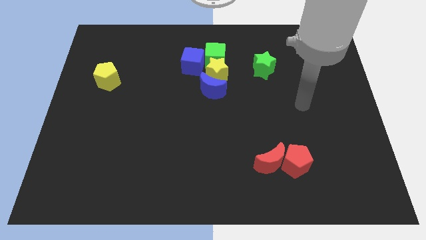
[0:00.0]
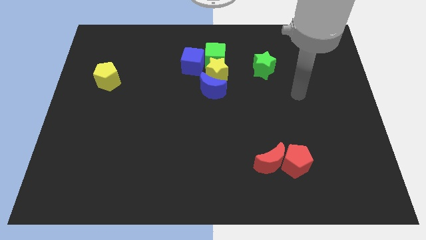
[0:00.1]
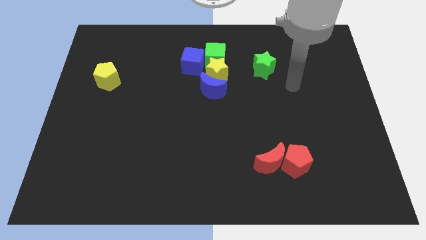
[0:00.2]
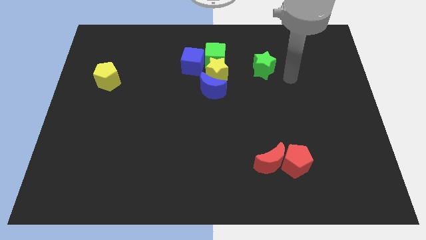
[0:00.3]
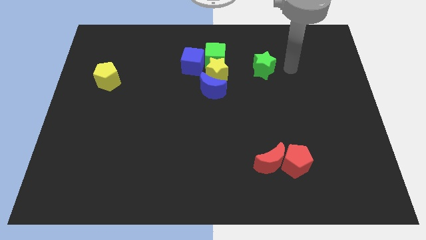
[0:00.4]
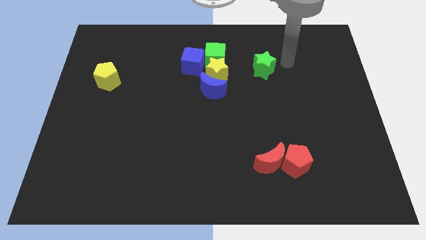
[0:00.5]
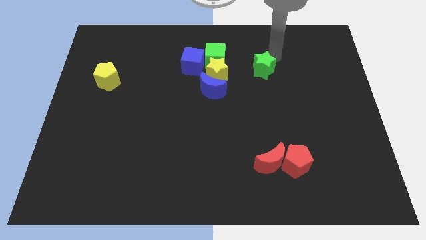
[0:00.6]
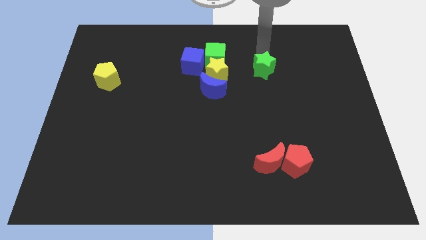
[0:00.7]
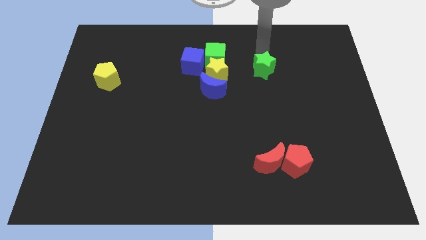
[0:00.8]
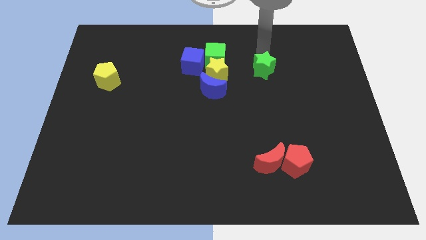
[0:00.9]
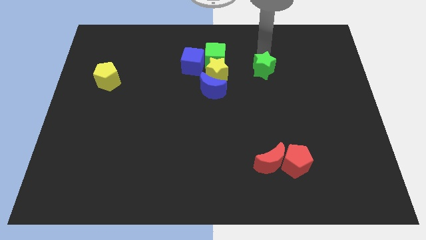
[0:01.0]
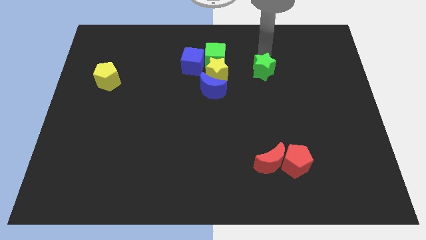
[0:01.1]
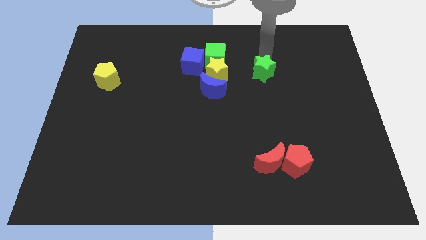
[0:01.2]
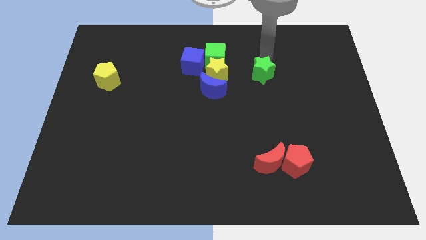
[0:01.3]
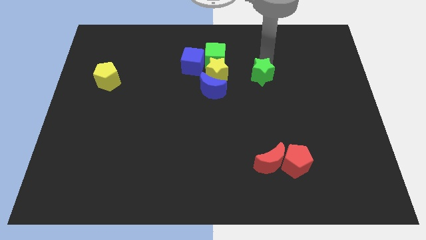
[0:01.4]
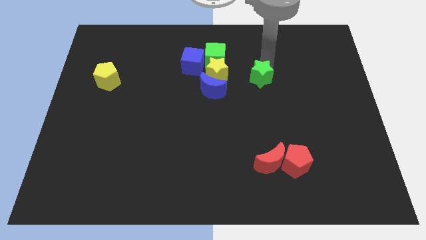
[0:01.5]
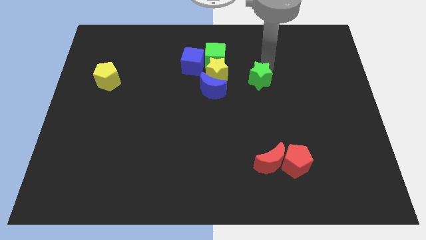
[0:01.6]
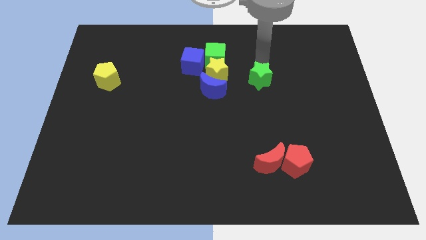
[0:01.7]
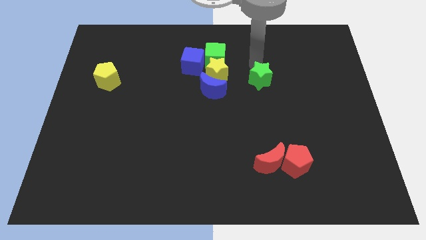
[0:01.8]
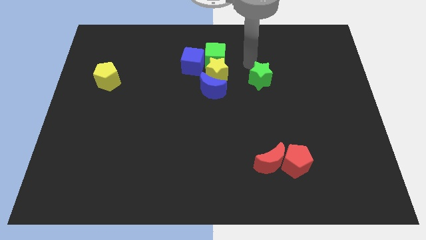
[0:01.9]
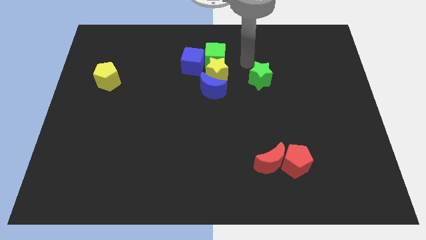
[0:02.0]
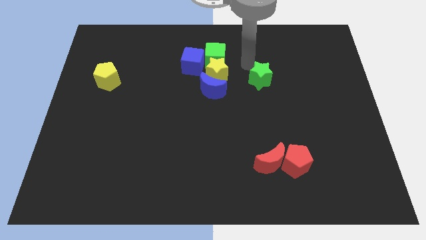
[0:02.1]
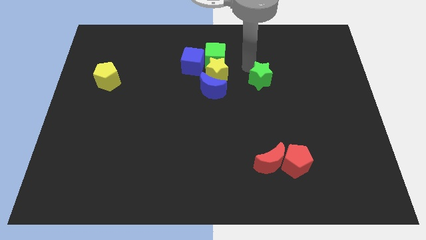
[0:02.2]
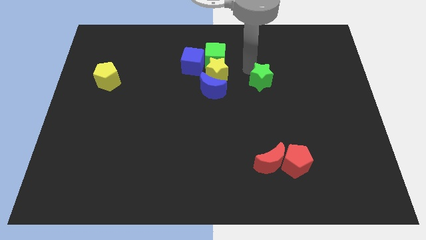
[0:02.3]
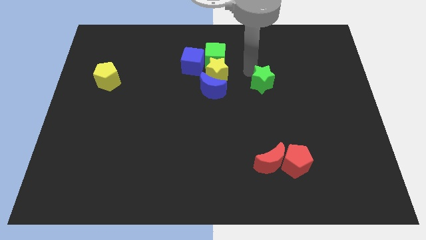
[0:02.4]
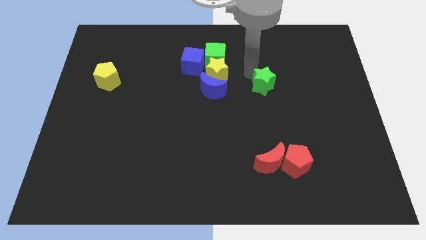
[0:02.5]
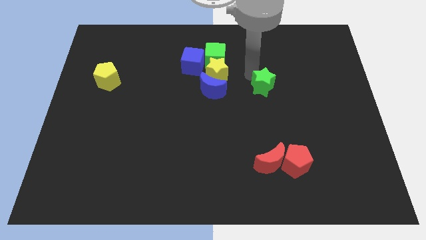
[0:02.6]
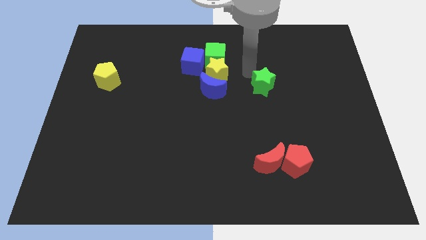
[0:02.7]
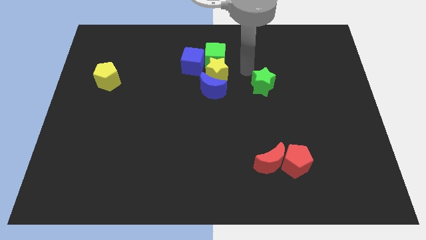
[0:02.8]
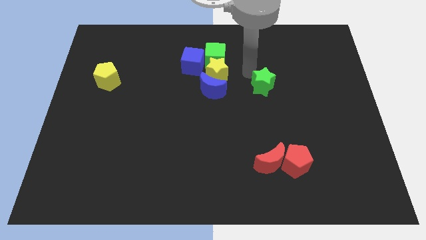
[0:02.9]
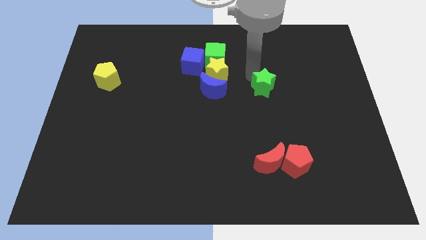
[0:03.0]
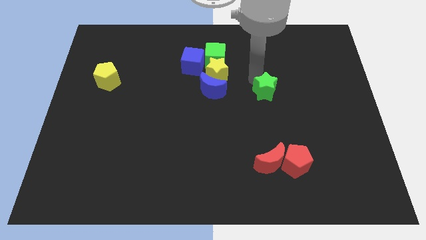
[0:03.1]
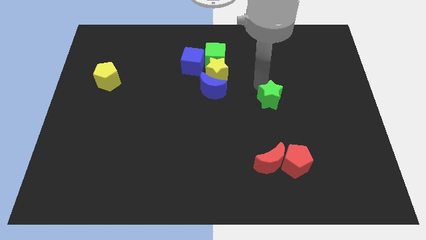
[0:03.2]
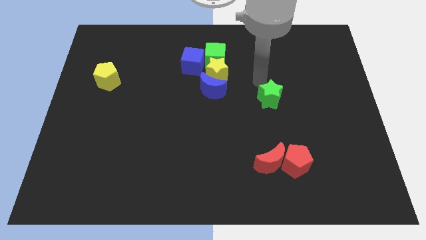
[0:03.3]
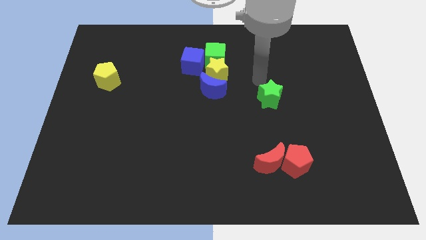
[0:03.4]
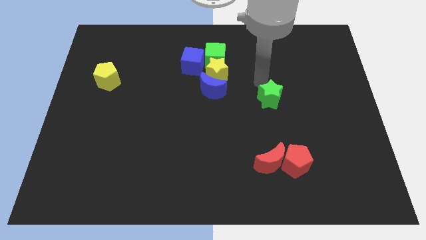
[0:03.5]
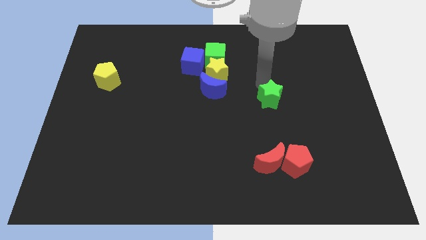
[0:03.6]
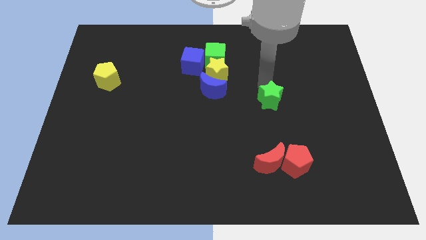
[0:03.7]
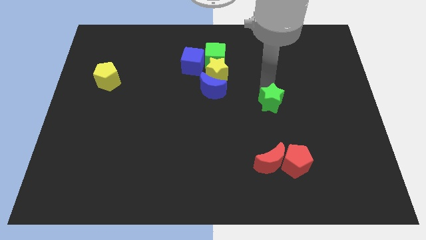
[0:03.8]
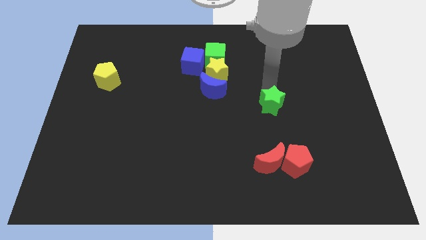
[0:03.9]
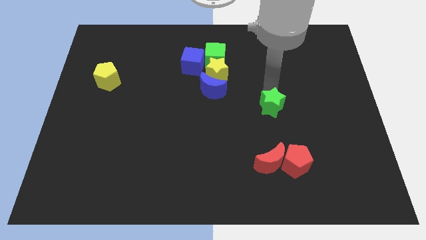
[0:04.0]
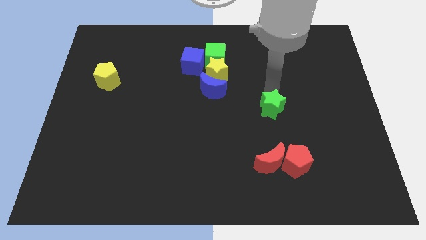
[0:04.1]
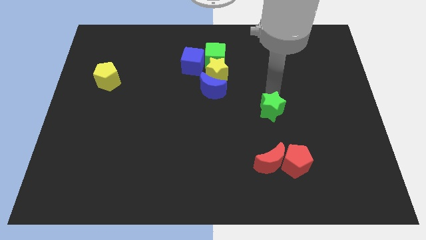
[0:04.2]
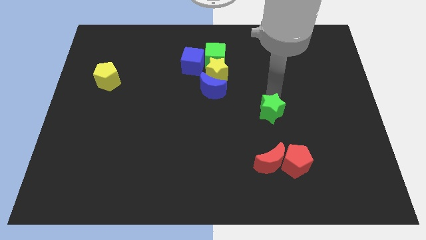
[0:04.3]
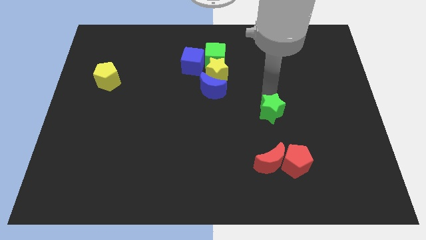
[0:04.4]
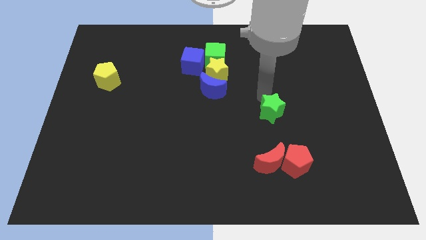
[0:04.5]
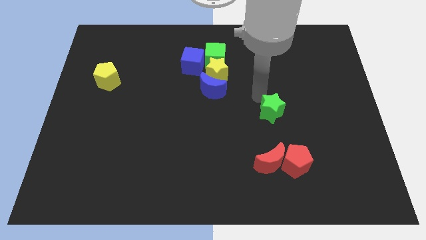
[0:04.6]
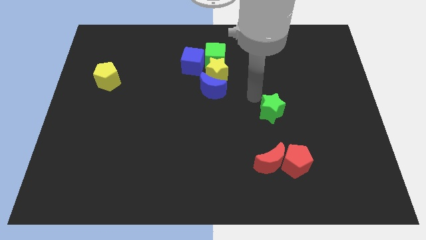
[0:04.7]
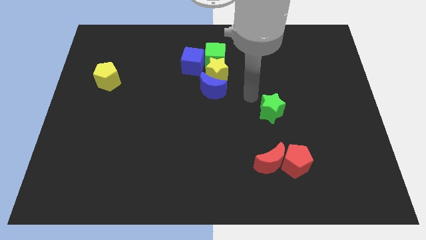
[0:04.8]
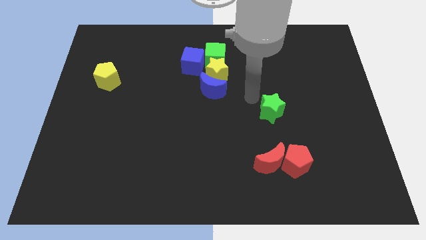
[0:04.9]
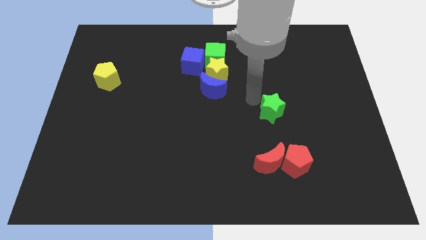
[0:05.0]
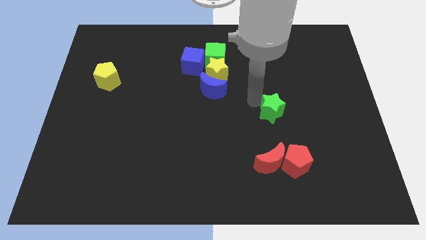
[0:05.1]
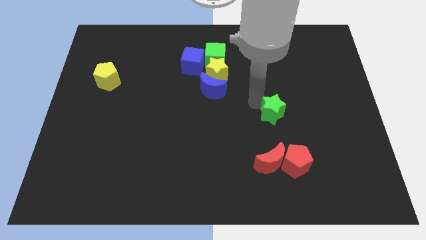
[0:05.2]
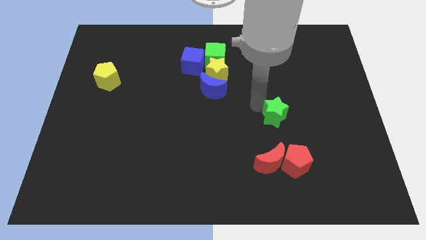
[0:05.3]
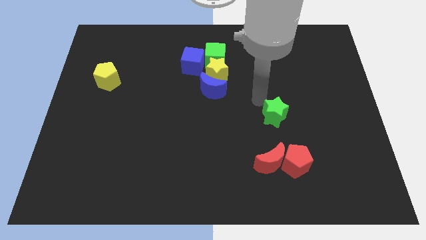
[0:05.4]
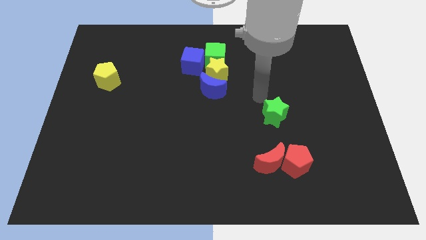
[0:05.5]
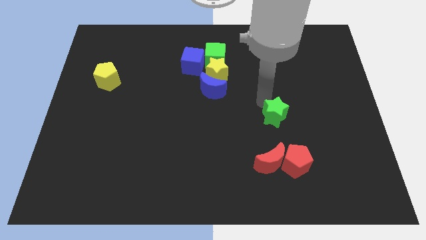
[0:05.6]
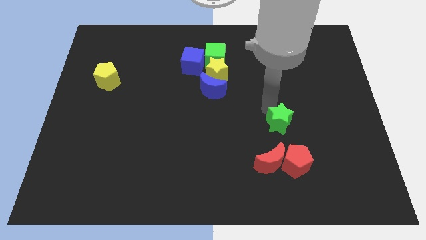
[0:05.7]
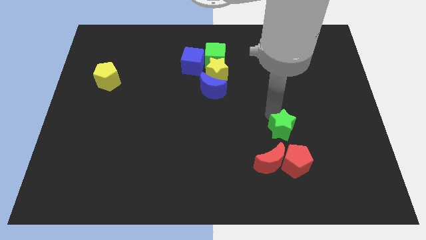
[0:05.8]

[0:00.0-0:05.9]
slide the green star to the top right of the red moon

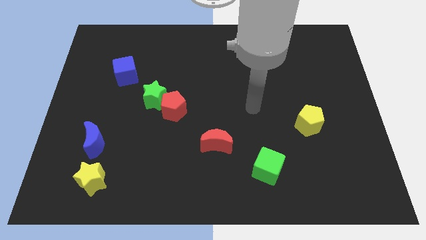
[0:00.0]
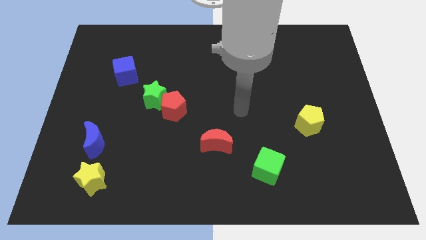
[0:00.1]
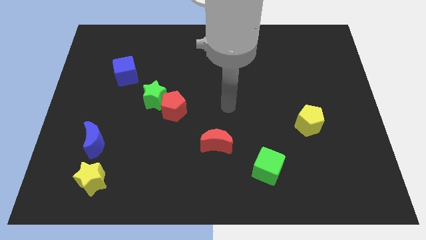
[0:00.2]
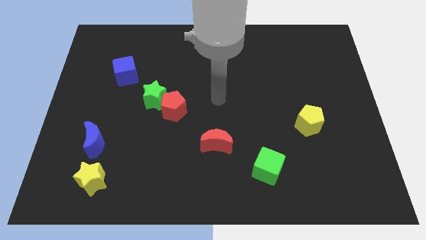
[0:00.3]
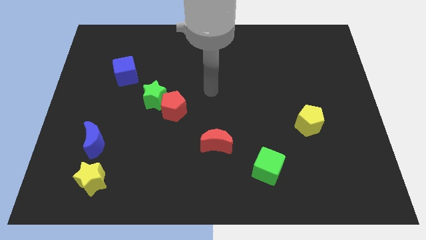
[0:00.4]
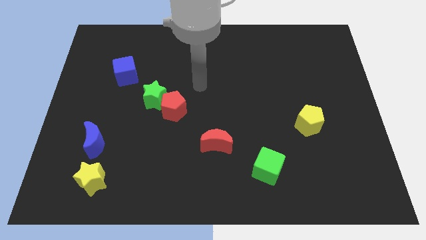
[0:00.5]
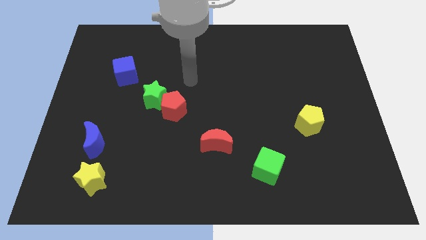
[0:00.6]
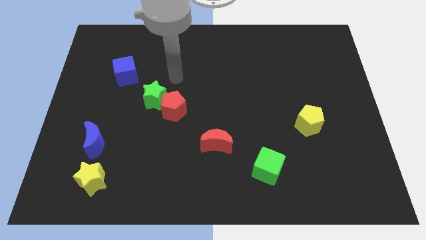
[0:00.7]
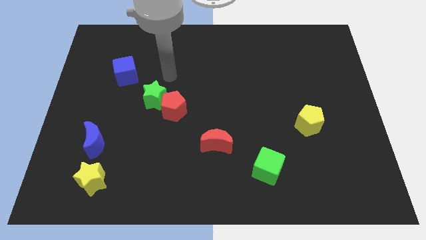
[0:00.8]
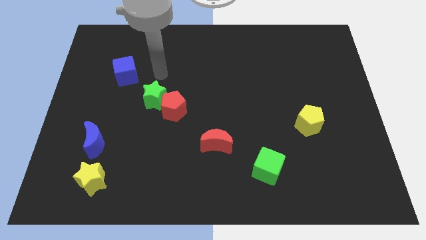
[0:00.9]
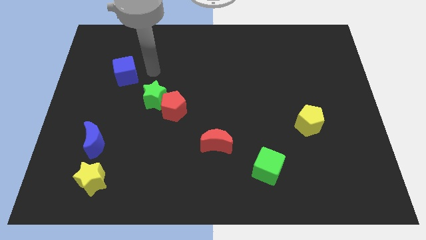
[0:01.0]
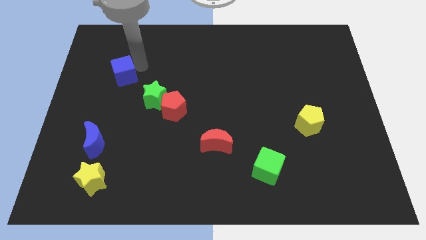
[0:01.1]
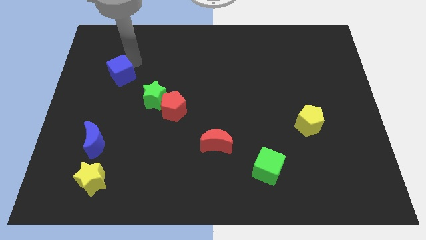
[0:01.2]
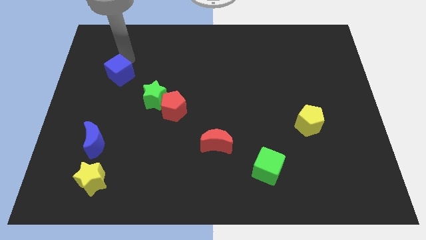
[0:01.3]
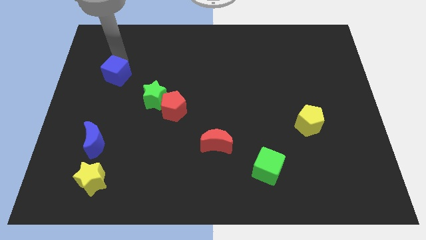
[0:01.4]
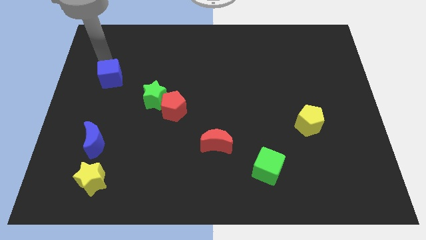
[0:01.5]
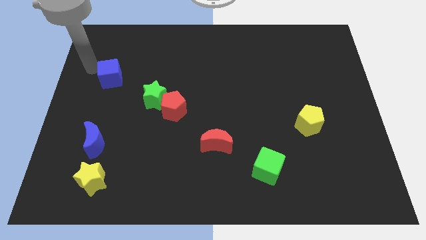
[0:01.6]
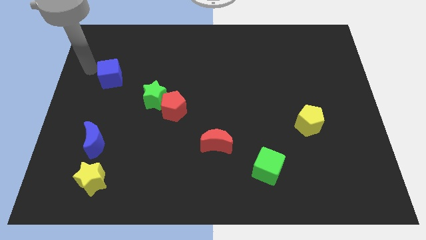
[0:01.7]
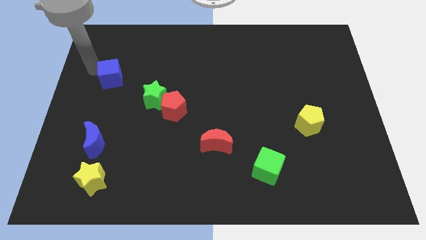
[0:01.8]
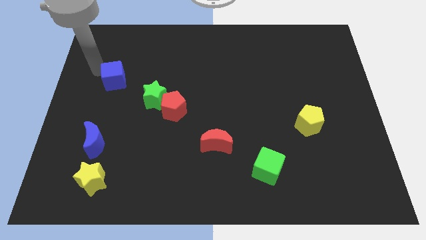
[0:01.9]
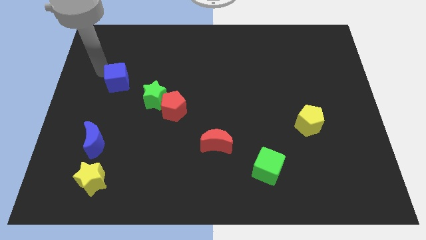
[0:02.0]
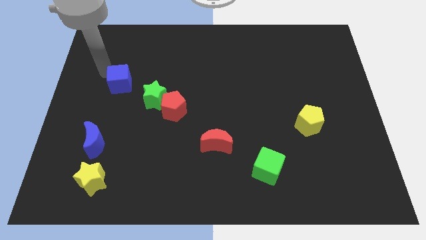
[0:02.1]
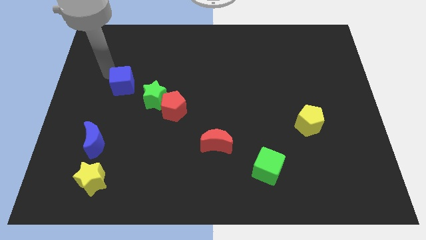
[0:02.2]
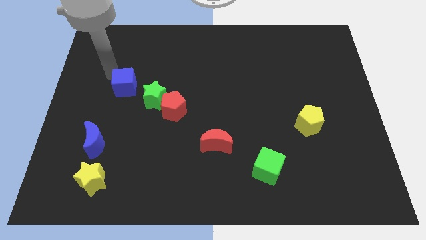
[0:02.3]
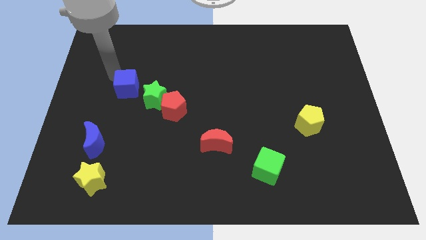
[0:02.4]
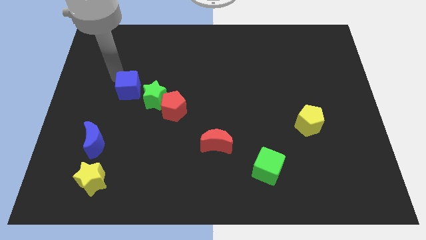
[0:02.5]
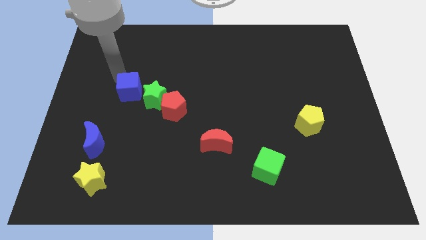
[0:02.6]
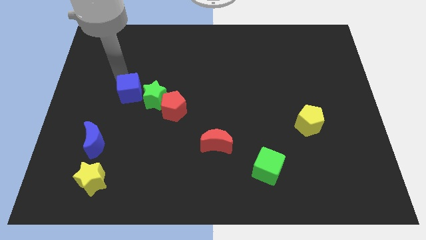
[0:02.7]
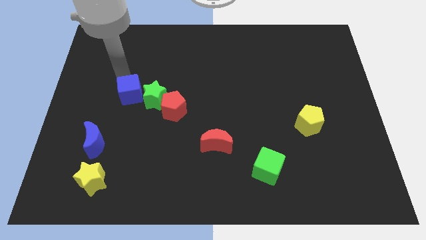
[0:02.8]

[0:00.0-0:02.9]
put the blue cube diagonally up and to the left of the red pentagon
